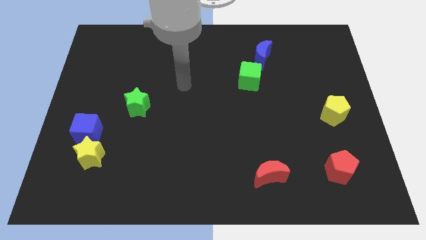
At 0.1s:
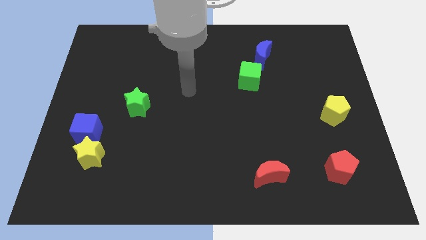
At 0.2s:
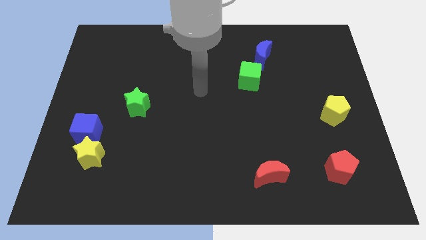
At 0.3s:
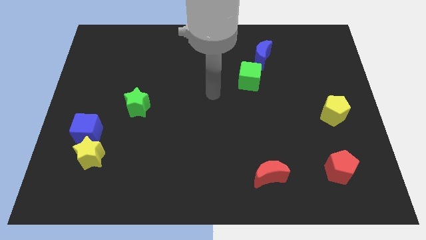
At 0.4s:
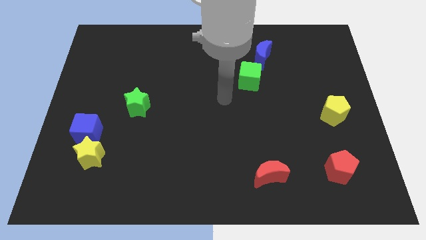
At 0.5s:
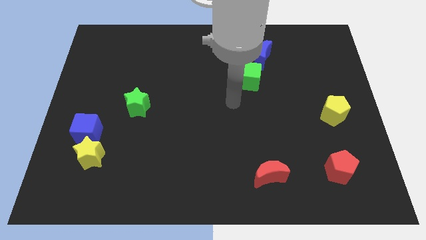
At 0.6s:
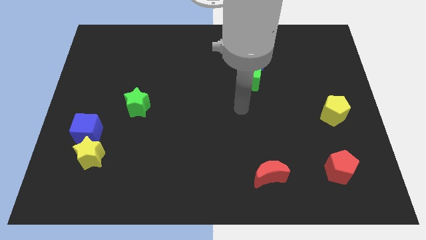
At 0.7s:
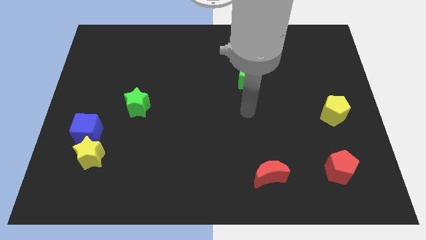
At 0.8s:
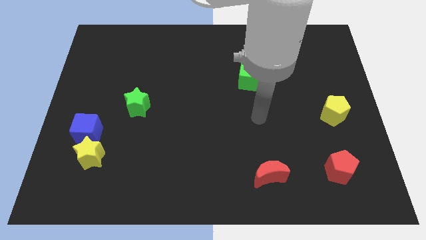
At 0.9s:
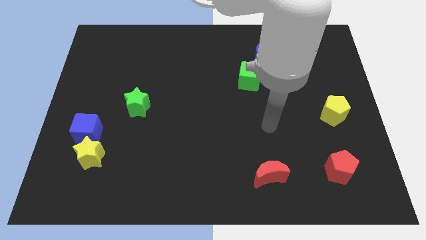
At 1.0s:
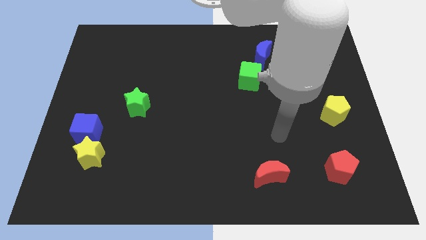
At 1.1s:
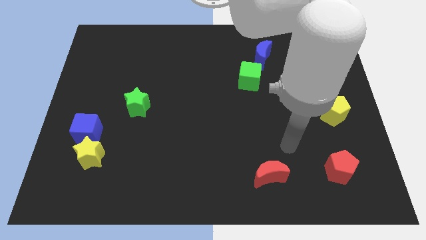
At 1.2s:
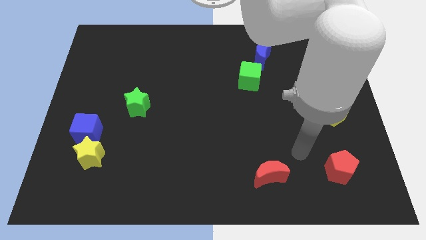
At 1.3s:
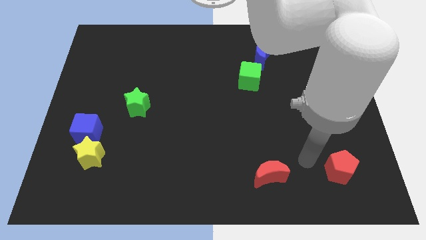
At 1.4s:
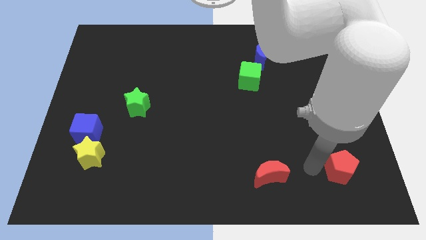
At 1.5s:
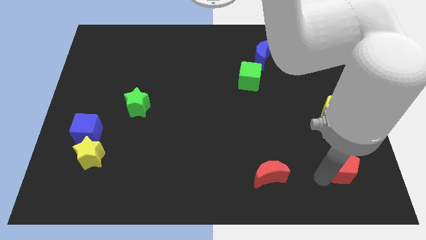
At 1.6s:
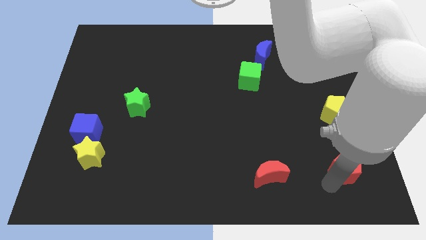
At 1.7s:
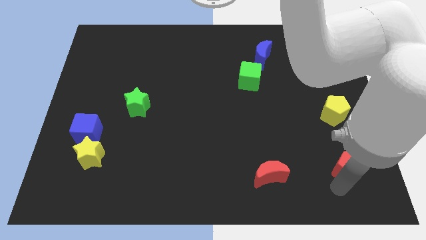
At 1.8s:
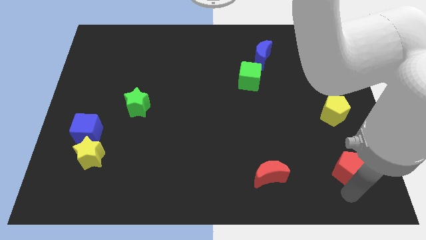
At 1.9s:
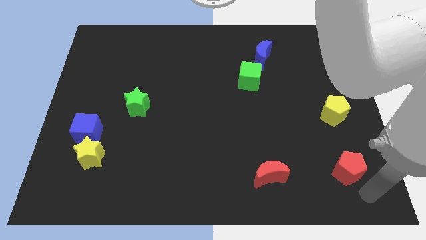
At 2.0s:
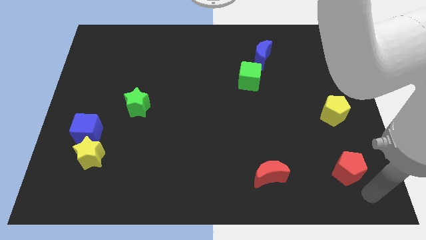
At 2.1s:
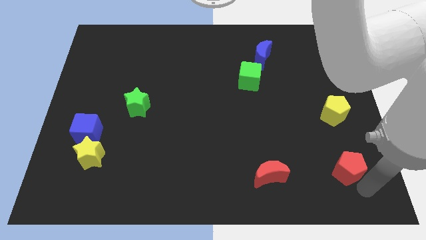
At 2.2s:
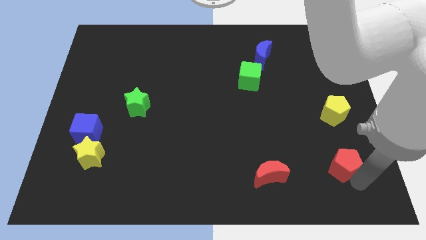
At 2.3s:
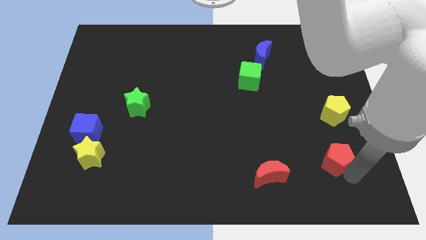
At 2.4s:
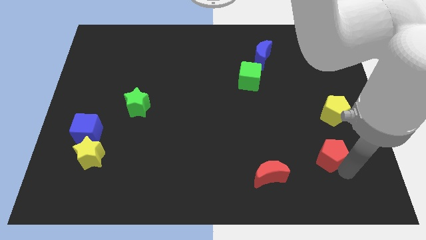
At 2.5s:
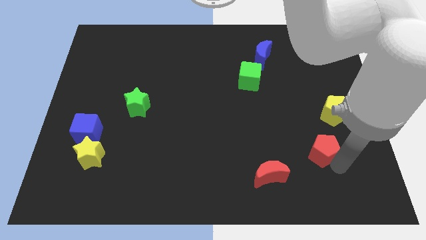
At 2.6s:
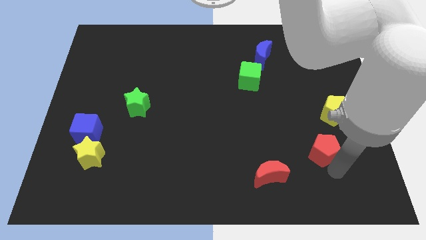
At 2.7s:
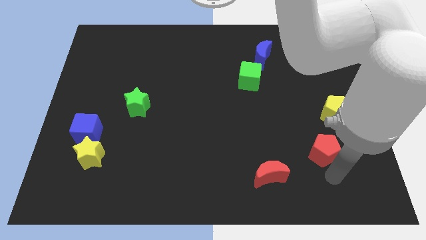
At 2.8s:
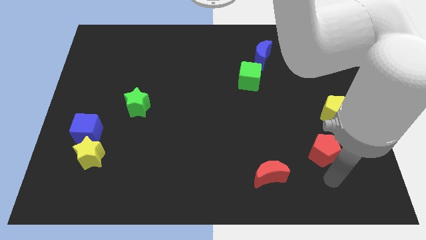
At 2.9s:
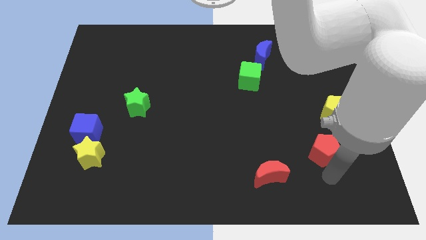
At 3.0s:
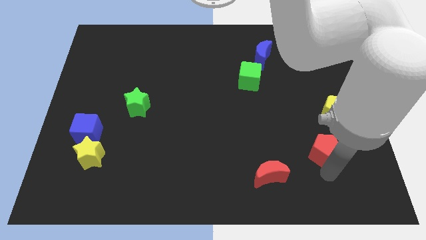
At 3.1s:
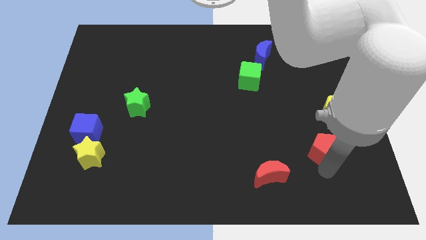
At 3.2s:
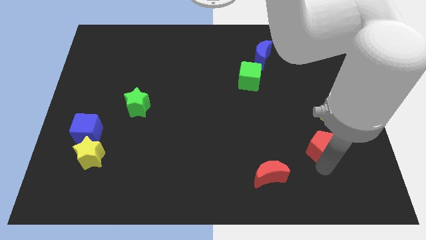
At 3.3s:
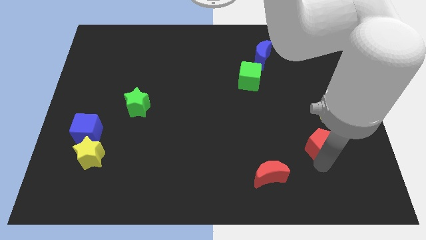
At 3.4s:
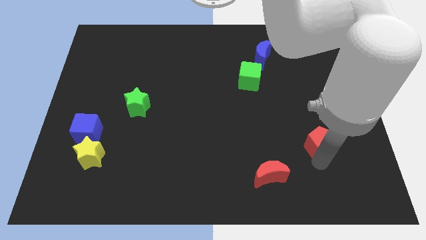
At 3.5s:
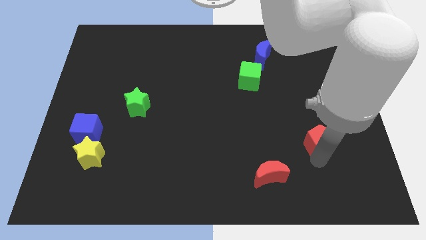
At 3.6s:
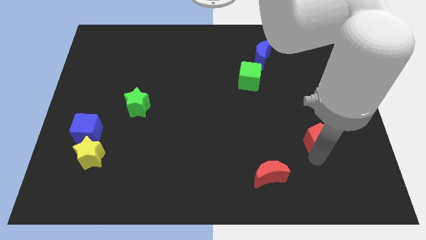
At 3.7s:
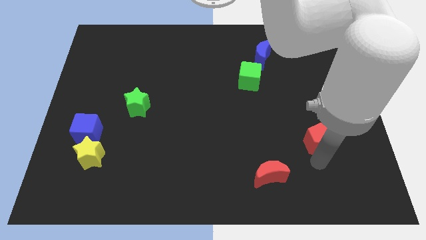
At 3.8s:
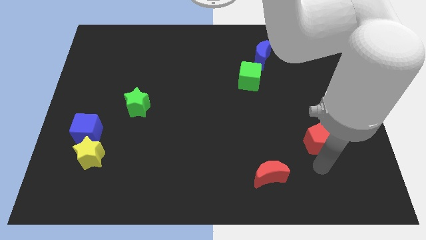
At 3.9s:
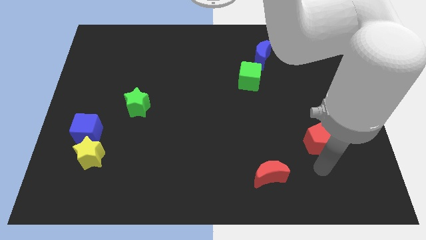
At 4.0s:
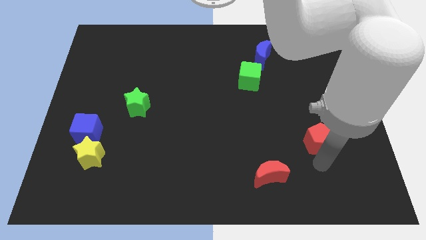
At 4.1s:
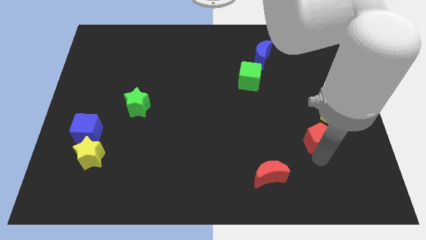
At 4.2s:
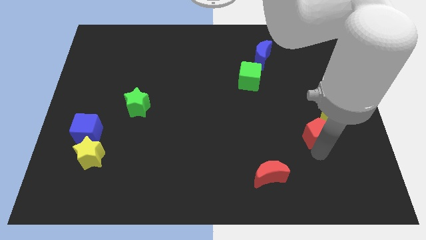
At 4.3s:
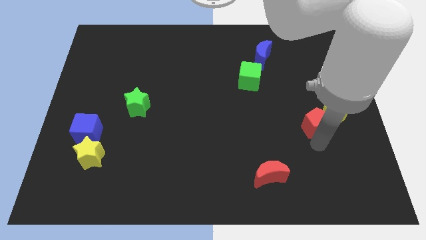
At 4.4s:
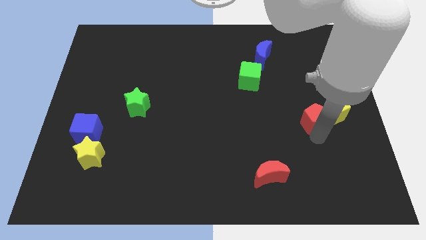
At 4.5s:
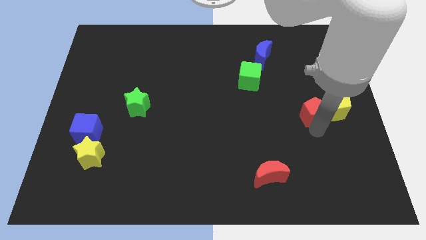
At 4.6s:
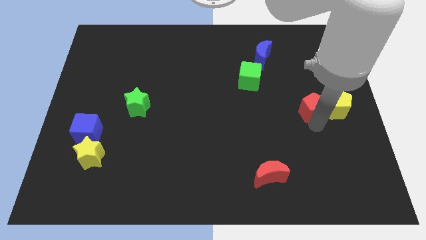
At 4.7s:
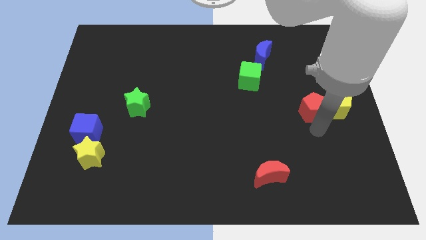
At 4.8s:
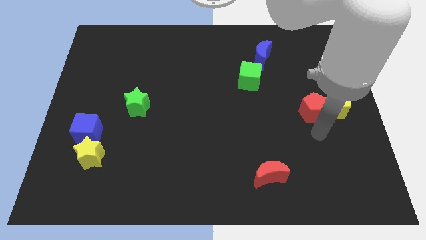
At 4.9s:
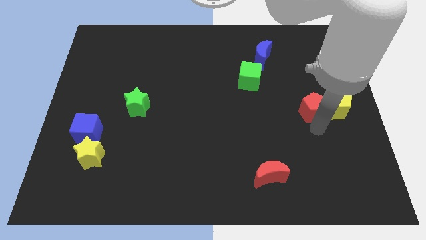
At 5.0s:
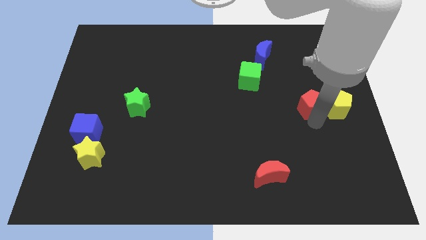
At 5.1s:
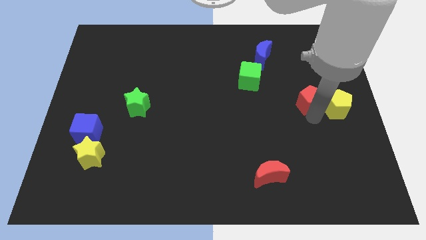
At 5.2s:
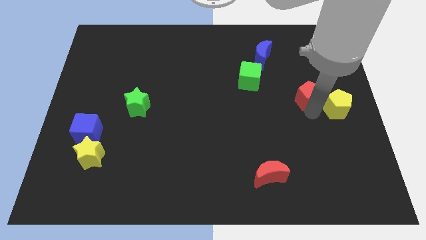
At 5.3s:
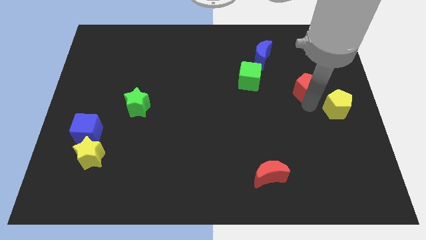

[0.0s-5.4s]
slide the red pentagon upwards

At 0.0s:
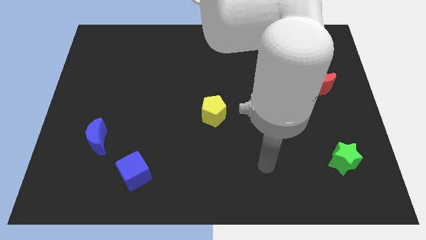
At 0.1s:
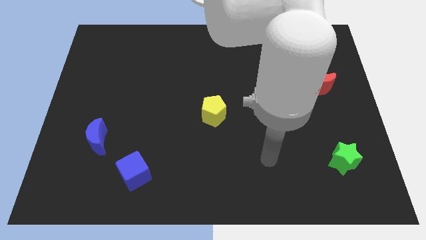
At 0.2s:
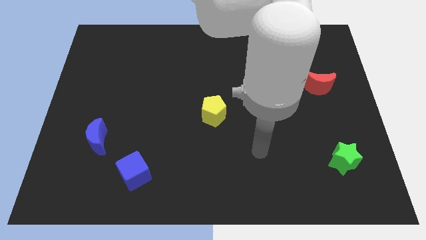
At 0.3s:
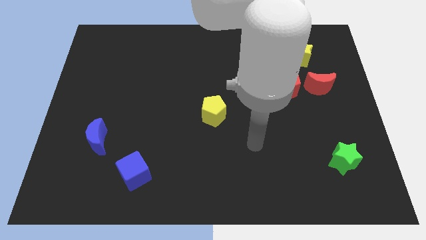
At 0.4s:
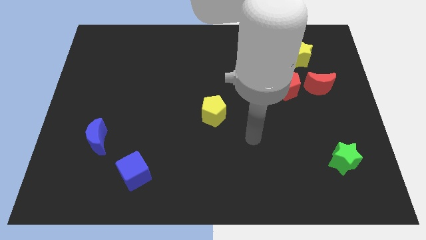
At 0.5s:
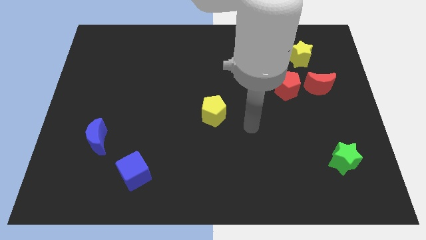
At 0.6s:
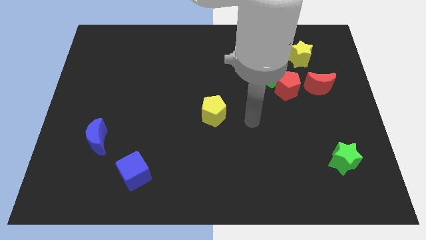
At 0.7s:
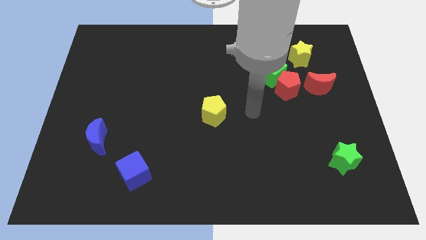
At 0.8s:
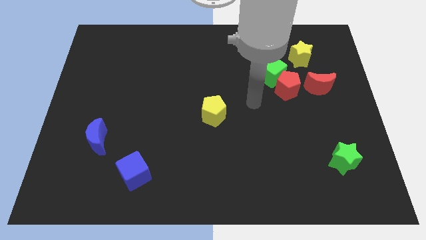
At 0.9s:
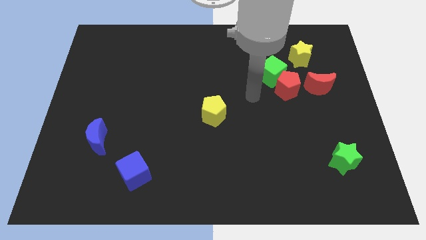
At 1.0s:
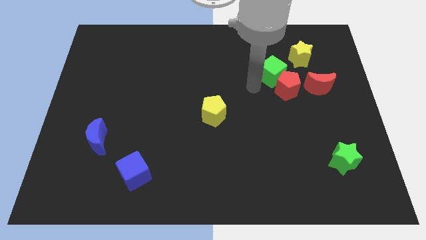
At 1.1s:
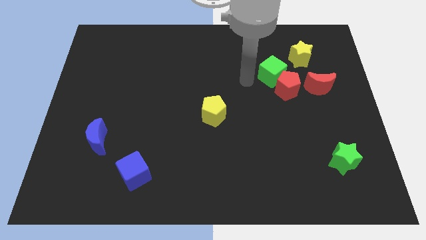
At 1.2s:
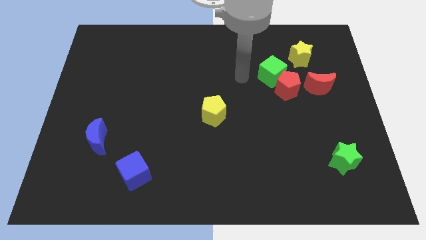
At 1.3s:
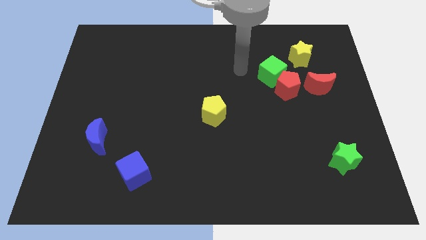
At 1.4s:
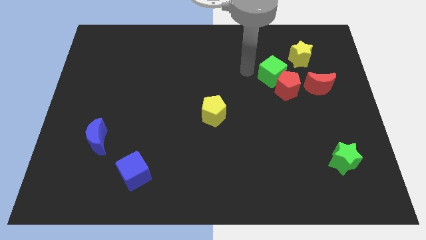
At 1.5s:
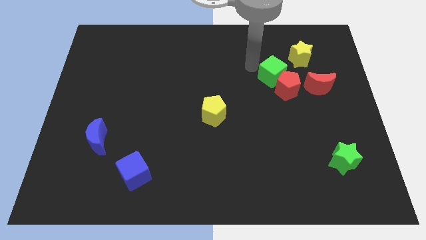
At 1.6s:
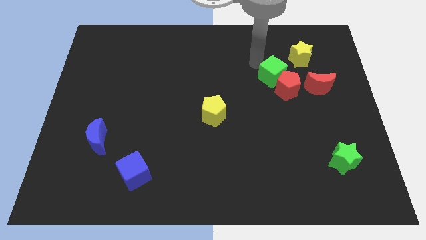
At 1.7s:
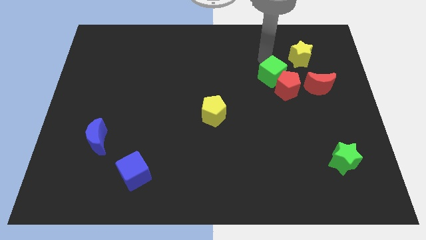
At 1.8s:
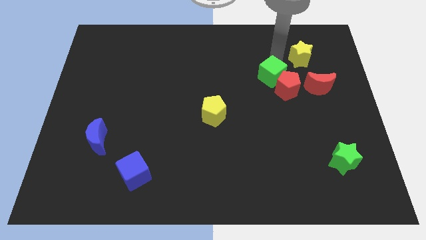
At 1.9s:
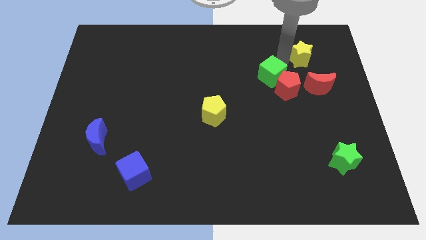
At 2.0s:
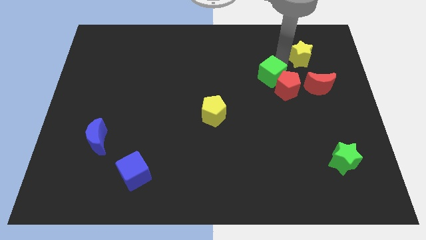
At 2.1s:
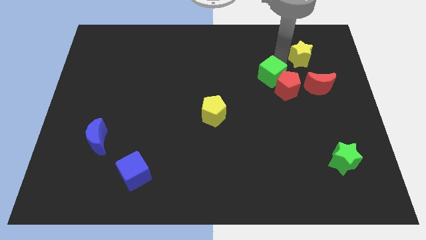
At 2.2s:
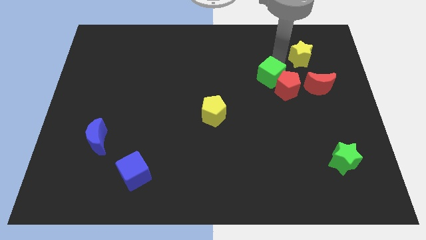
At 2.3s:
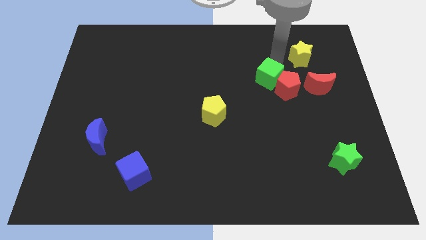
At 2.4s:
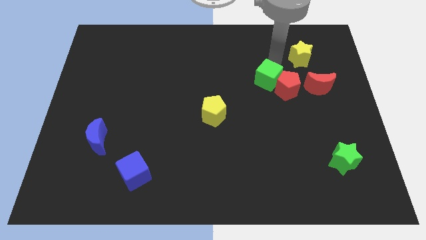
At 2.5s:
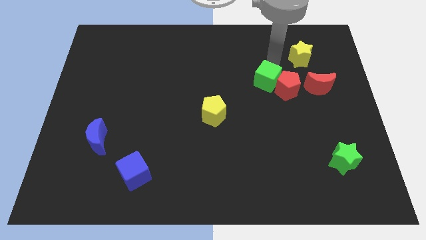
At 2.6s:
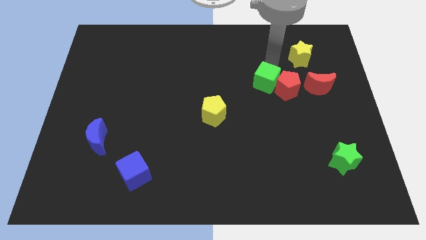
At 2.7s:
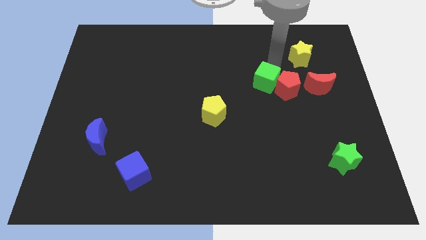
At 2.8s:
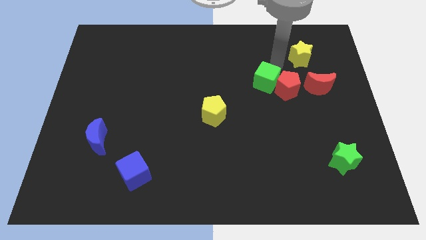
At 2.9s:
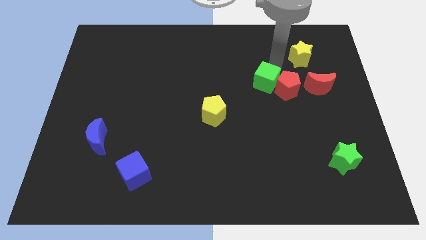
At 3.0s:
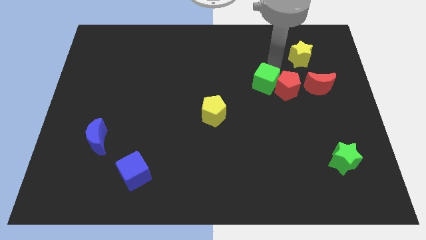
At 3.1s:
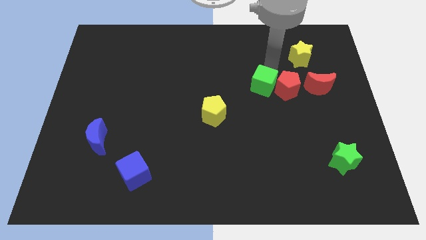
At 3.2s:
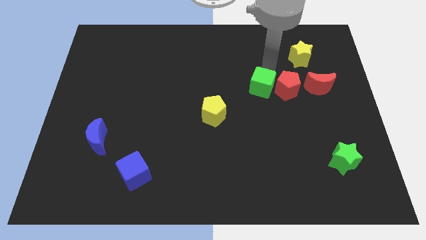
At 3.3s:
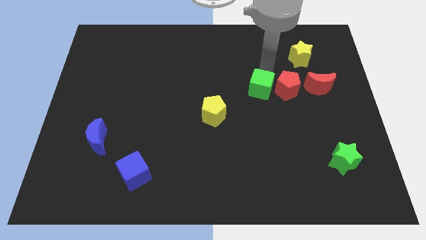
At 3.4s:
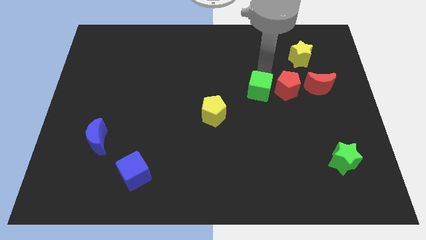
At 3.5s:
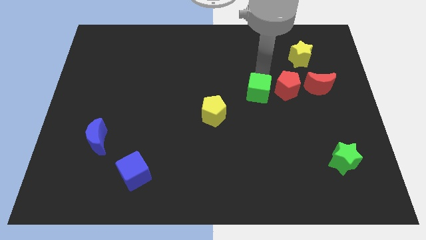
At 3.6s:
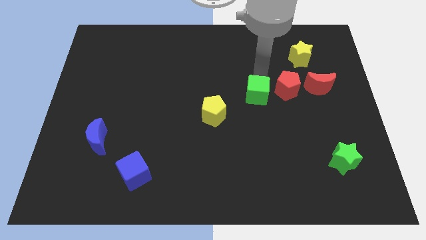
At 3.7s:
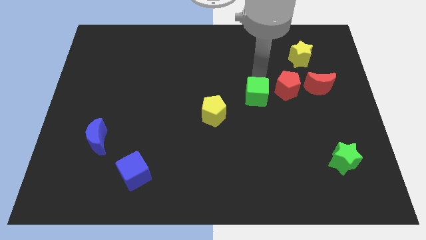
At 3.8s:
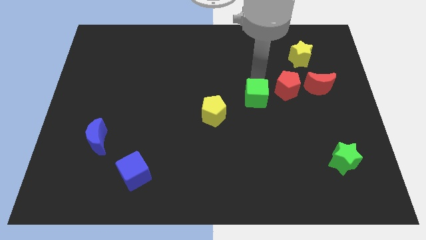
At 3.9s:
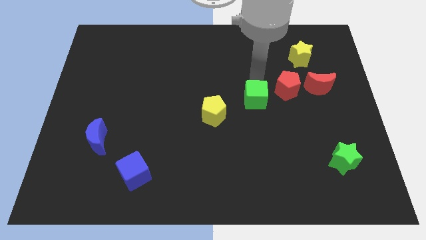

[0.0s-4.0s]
slightly move the green cube down
